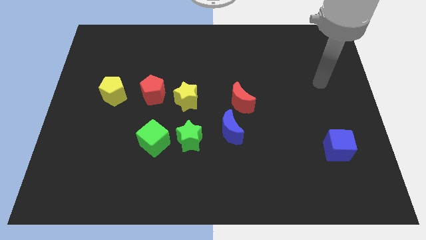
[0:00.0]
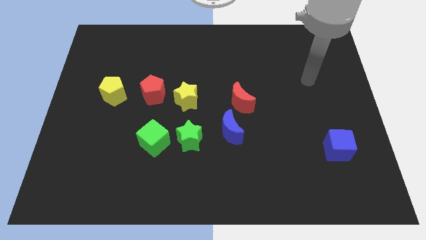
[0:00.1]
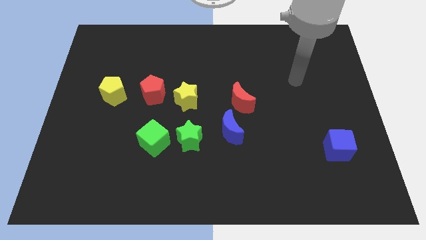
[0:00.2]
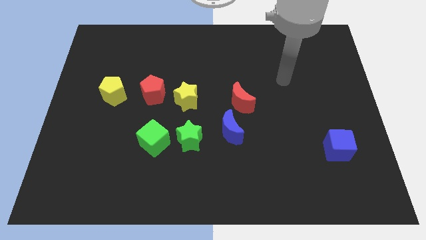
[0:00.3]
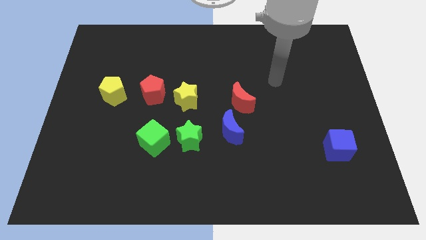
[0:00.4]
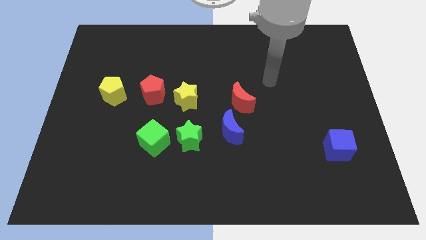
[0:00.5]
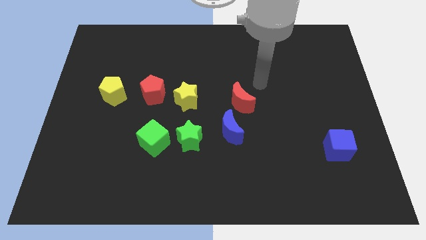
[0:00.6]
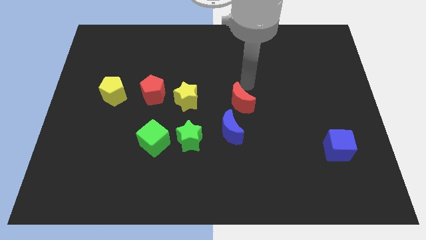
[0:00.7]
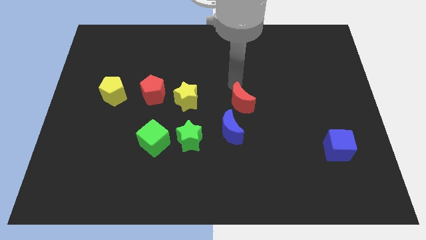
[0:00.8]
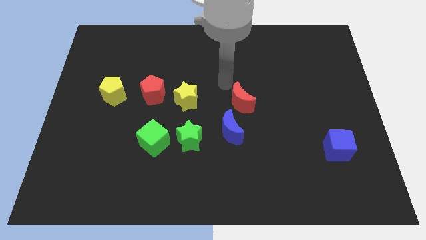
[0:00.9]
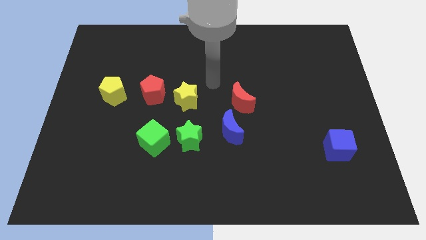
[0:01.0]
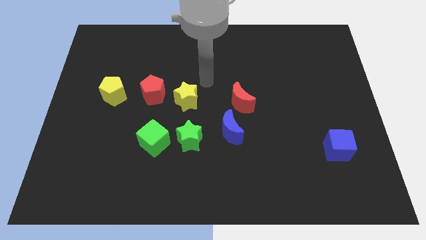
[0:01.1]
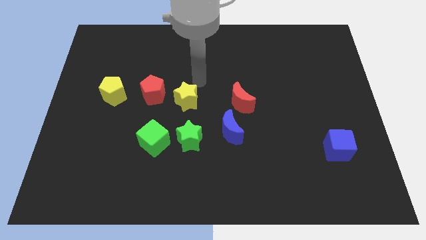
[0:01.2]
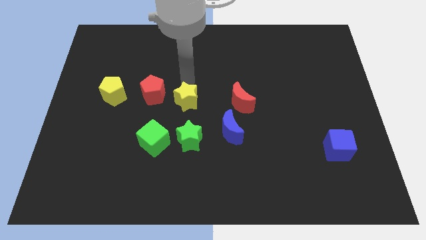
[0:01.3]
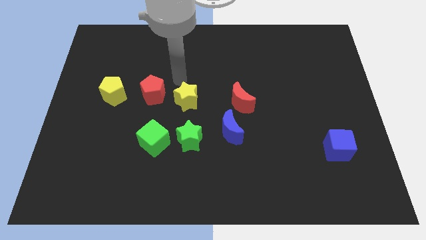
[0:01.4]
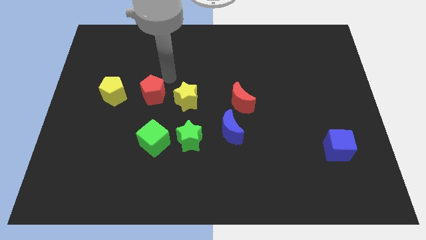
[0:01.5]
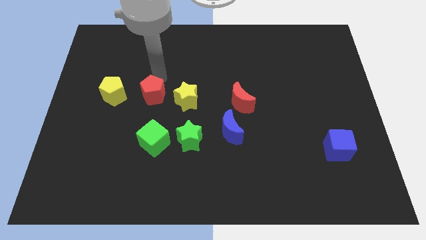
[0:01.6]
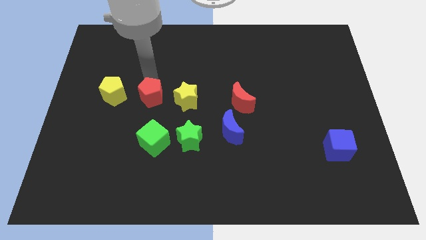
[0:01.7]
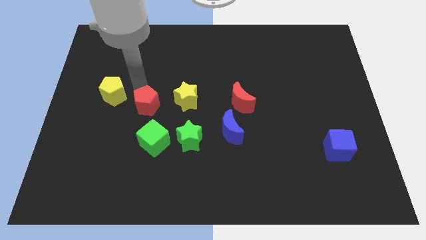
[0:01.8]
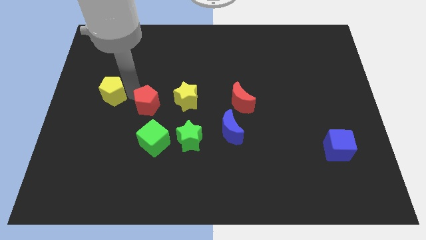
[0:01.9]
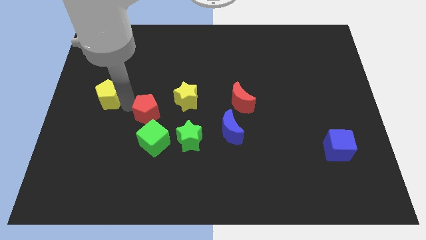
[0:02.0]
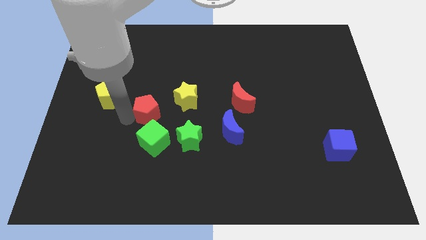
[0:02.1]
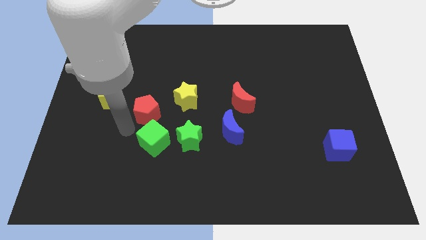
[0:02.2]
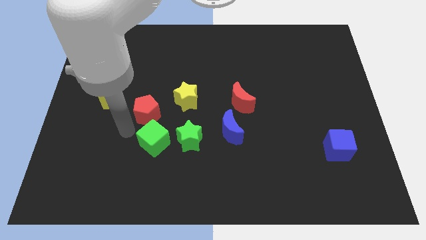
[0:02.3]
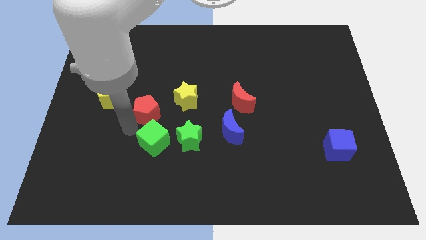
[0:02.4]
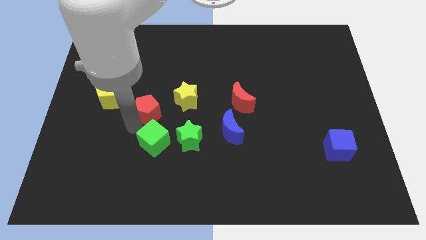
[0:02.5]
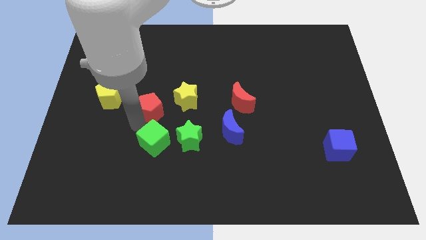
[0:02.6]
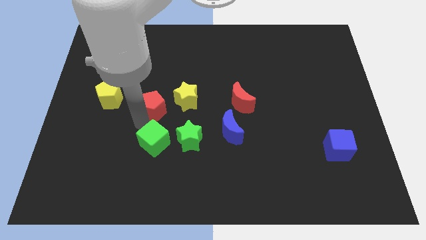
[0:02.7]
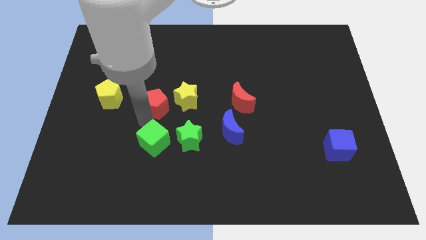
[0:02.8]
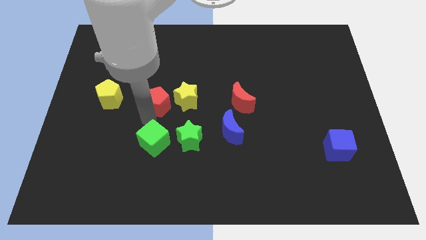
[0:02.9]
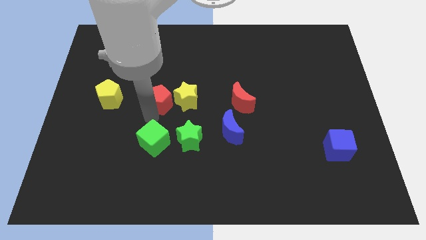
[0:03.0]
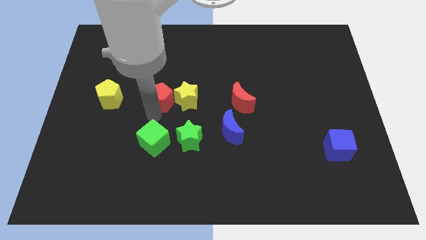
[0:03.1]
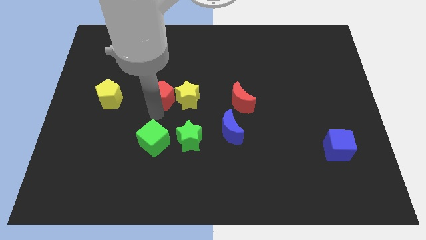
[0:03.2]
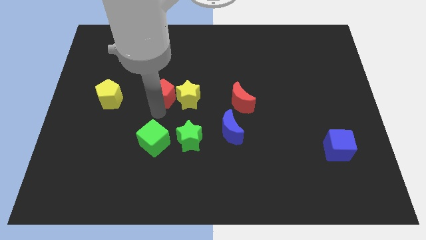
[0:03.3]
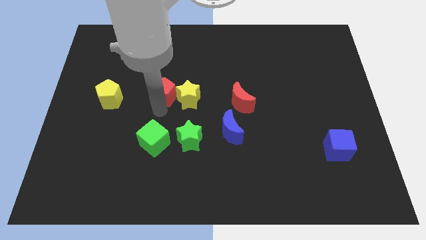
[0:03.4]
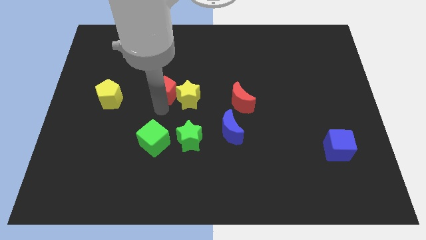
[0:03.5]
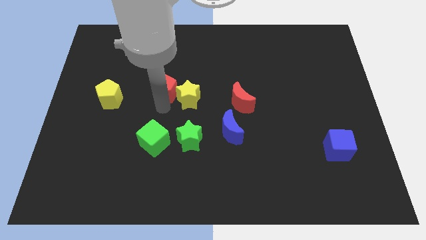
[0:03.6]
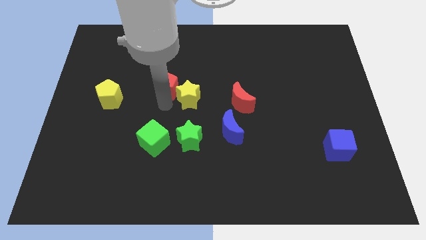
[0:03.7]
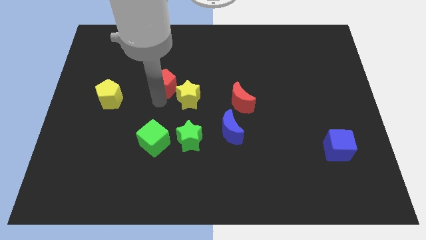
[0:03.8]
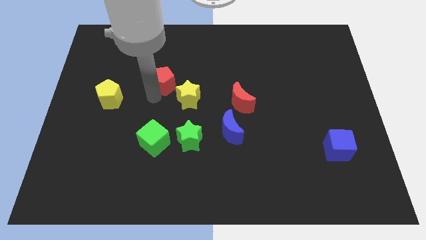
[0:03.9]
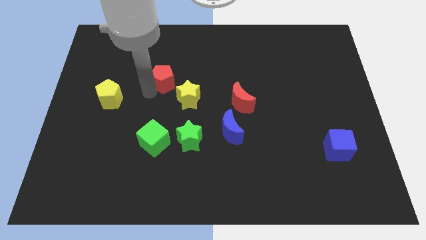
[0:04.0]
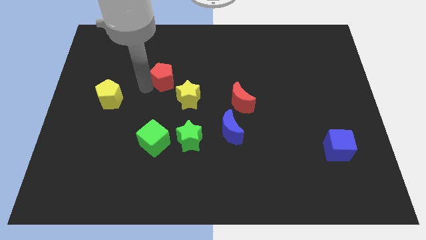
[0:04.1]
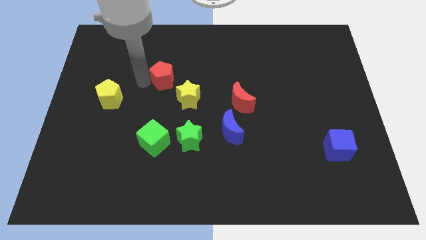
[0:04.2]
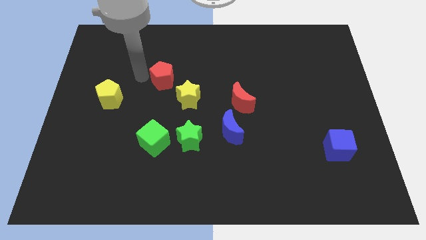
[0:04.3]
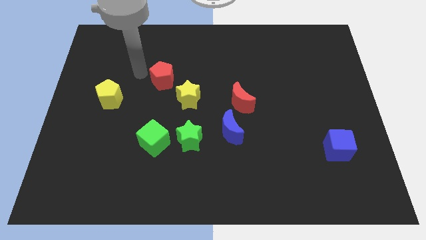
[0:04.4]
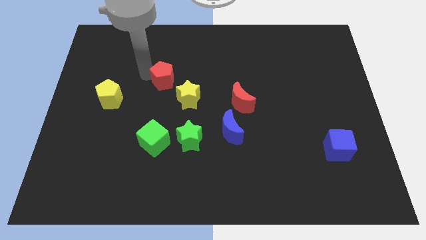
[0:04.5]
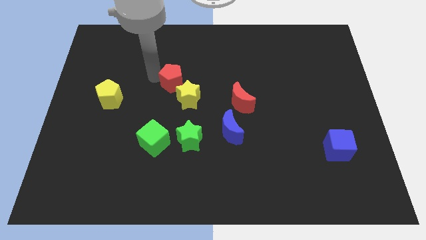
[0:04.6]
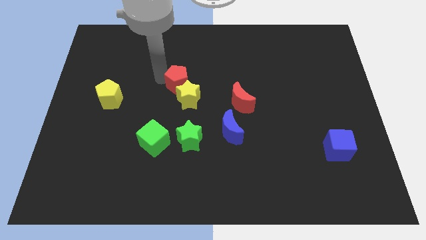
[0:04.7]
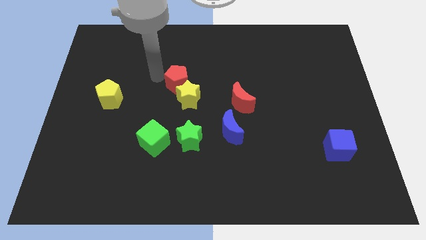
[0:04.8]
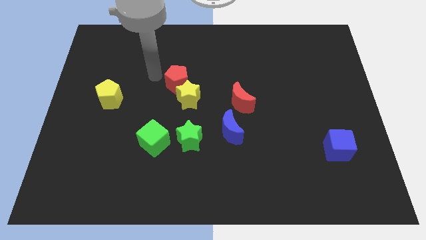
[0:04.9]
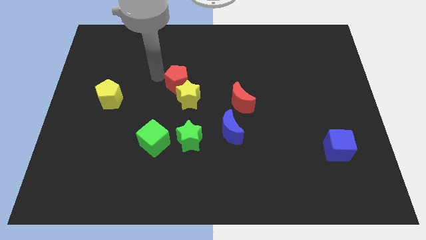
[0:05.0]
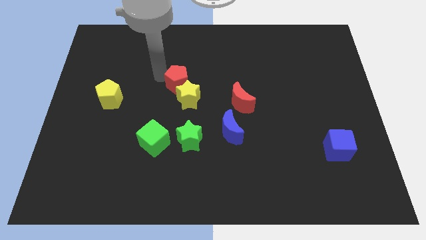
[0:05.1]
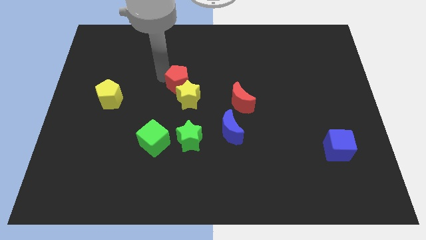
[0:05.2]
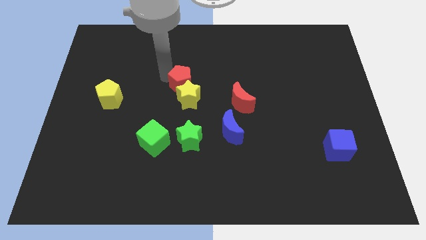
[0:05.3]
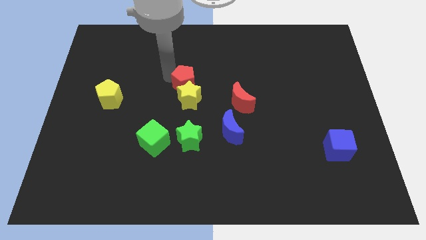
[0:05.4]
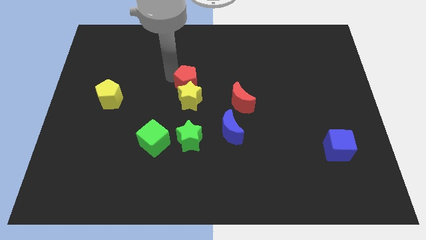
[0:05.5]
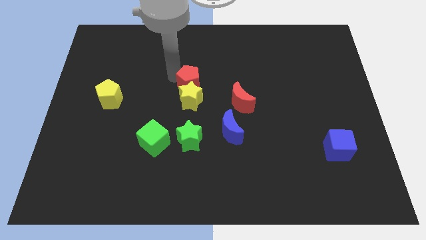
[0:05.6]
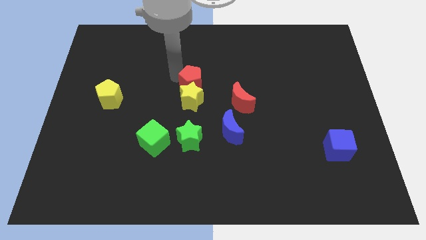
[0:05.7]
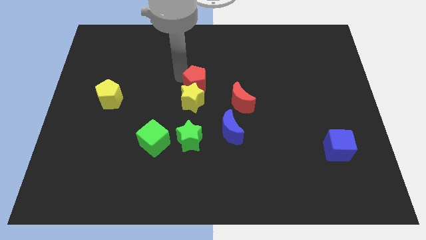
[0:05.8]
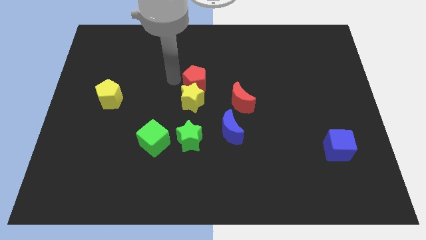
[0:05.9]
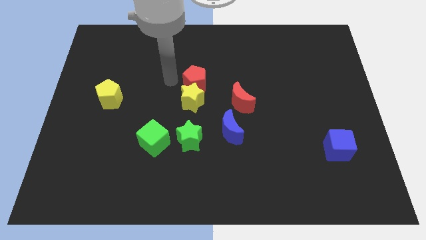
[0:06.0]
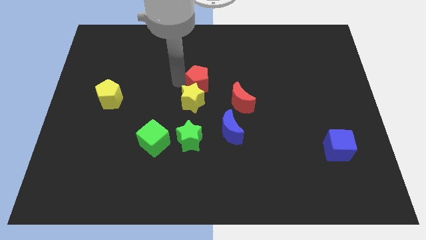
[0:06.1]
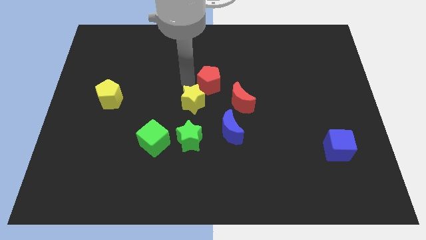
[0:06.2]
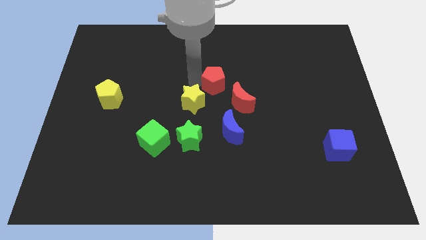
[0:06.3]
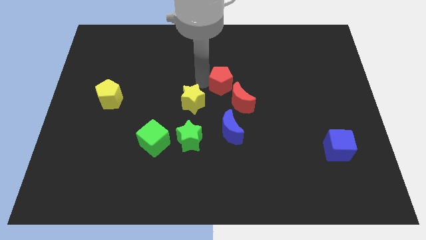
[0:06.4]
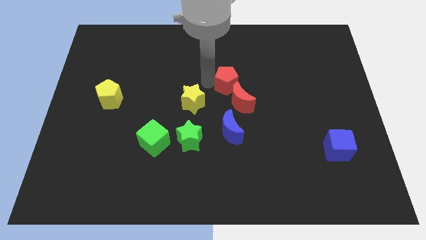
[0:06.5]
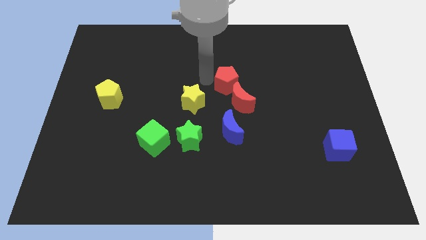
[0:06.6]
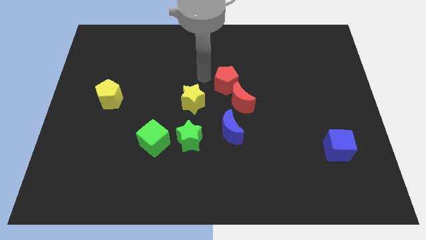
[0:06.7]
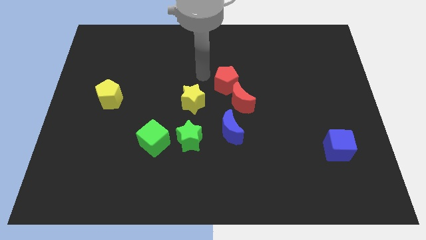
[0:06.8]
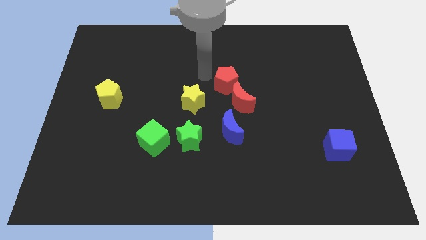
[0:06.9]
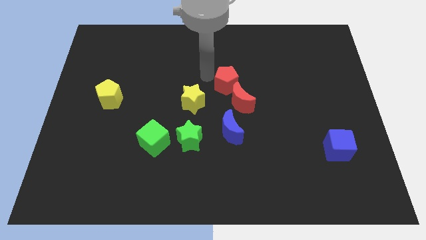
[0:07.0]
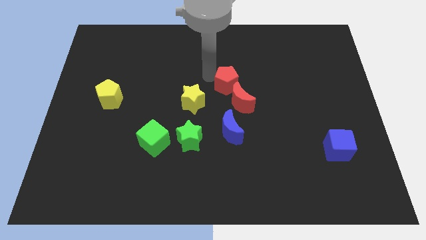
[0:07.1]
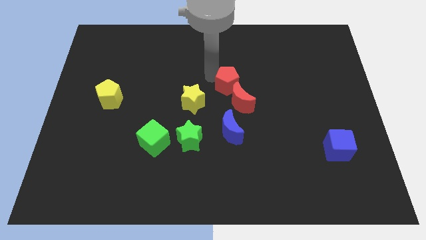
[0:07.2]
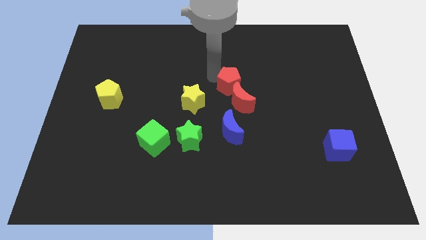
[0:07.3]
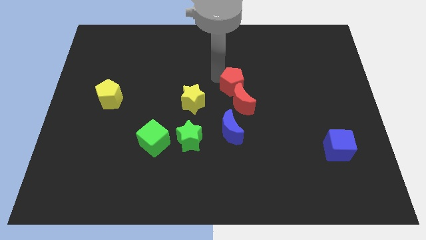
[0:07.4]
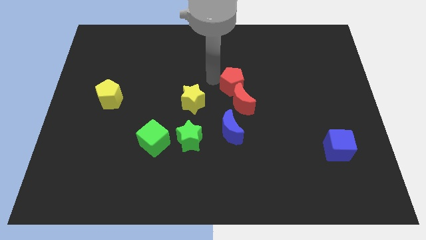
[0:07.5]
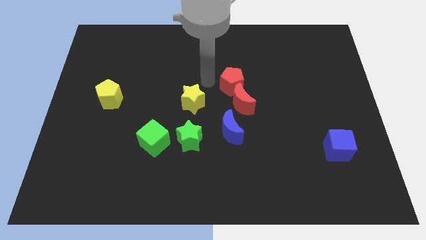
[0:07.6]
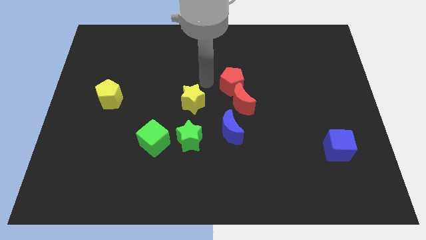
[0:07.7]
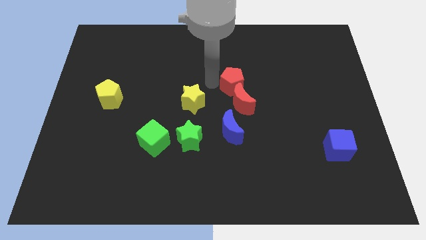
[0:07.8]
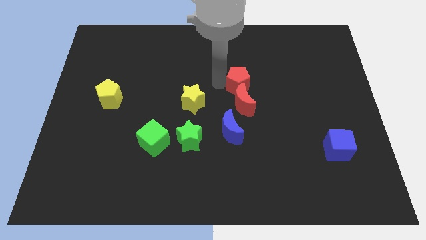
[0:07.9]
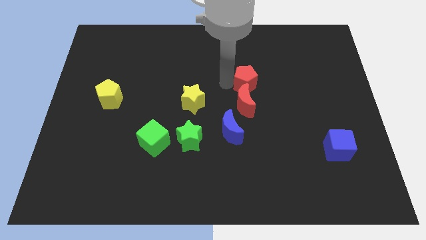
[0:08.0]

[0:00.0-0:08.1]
slide the red pentagon to the top right of the red moon

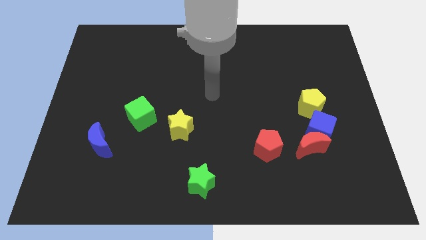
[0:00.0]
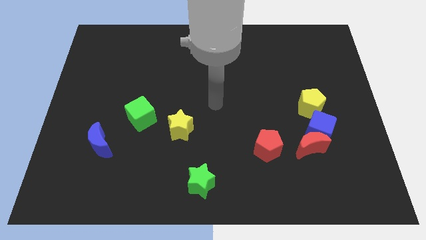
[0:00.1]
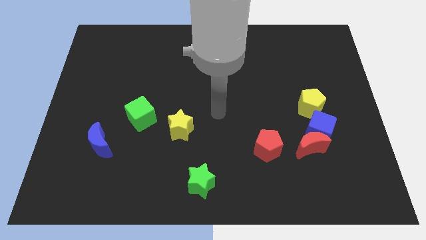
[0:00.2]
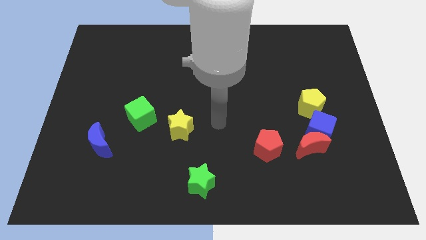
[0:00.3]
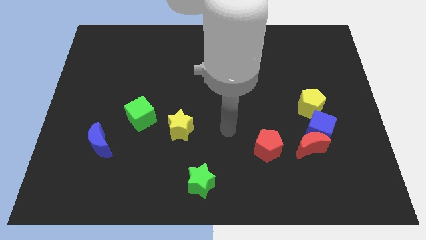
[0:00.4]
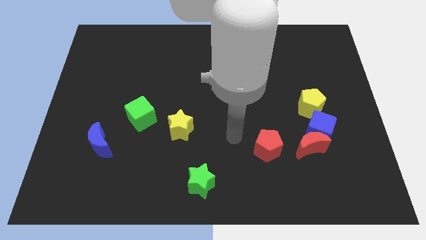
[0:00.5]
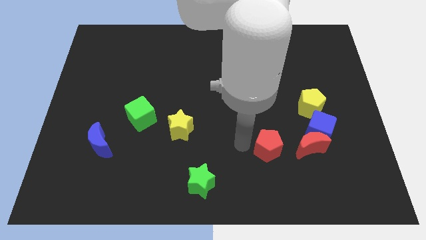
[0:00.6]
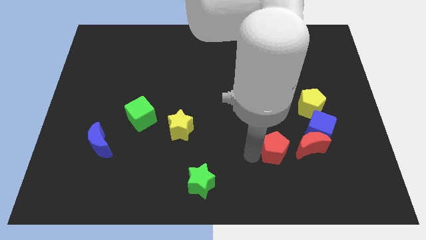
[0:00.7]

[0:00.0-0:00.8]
slide the red moon to the top right side of the red pentagon
